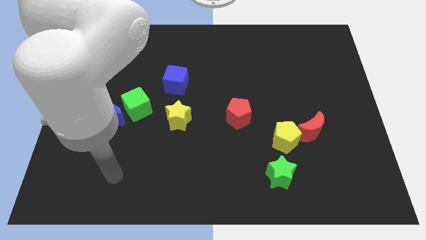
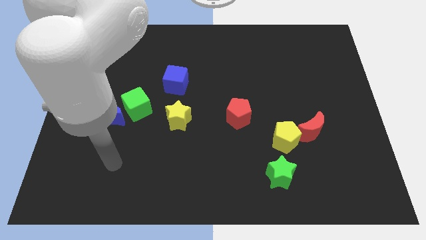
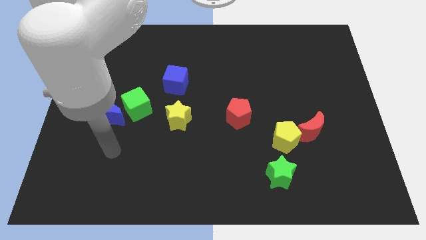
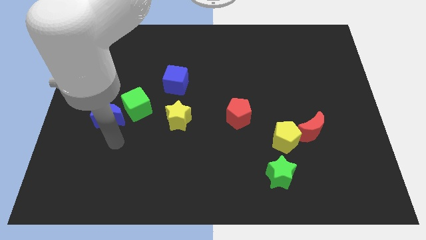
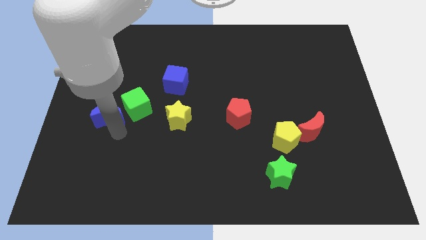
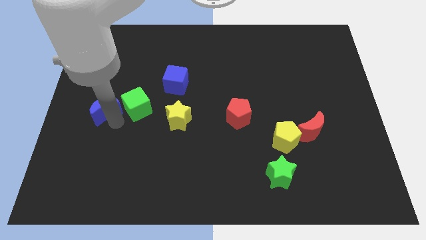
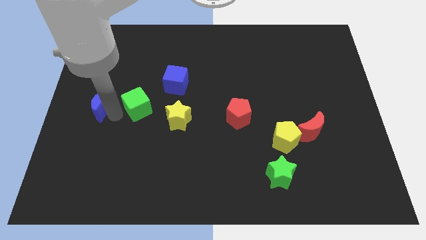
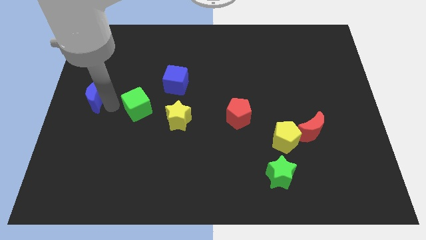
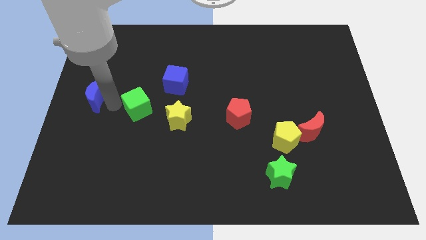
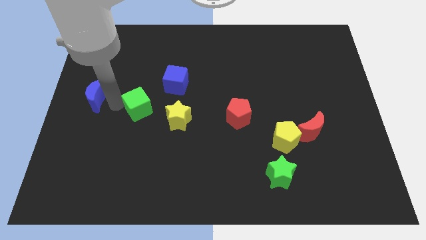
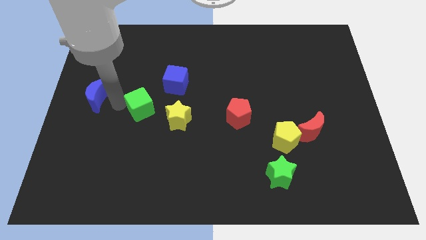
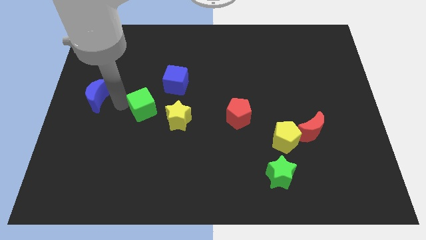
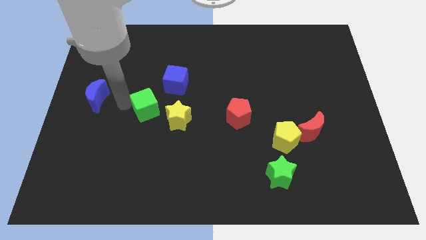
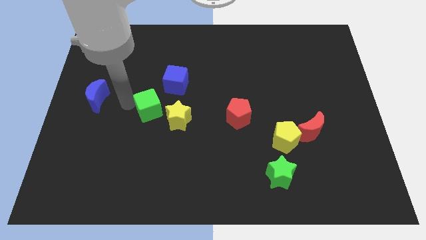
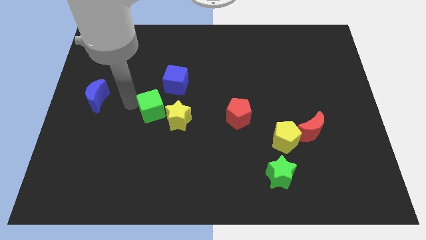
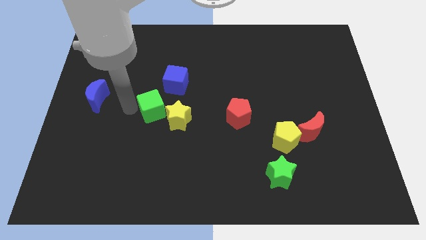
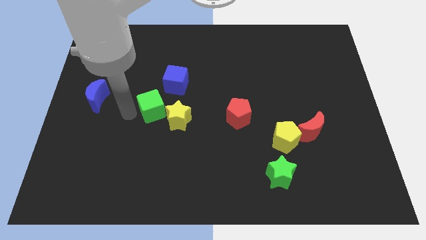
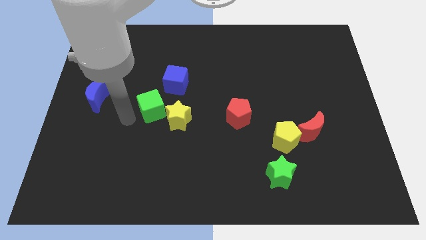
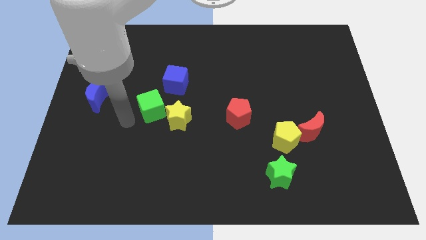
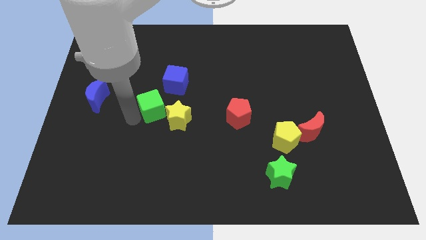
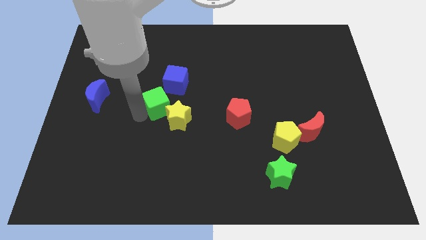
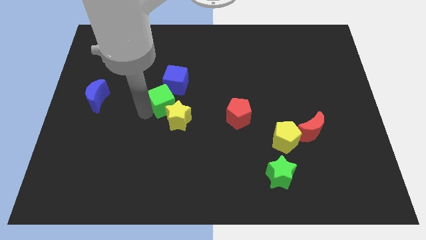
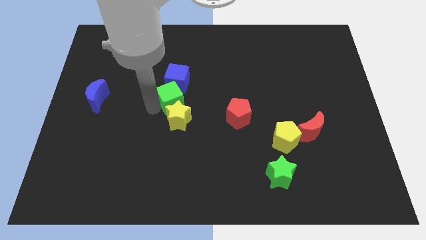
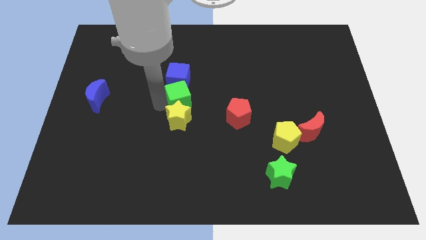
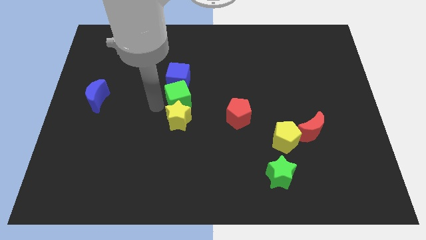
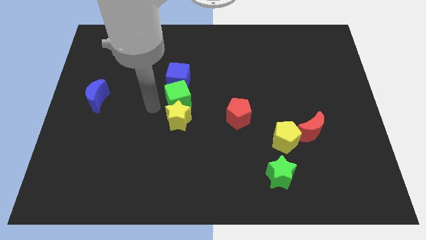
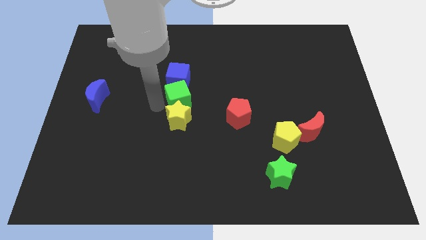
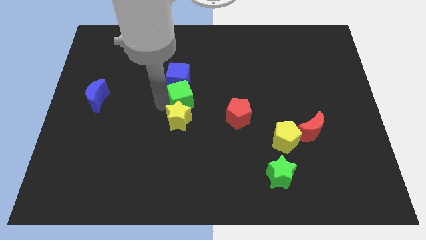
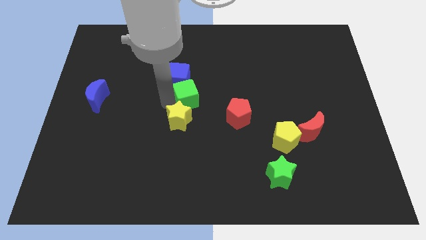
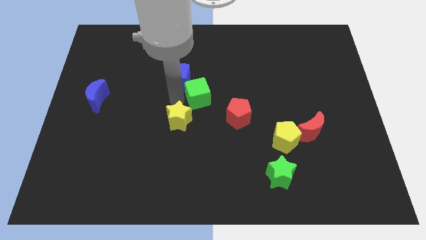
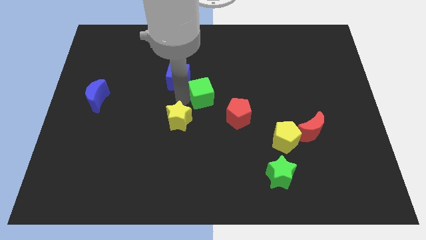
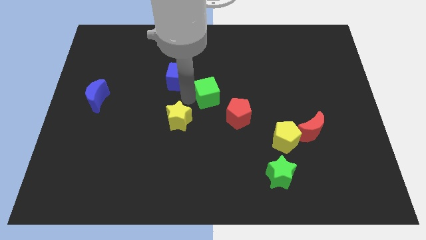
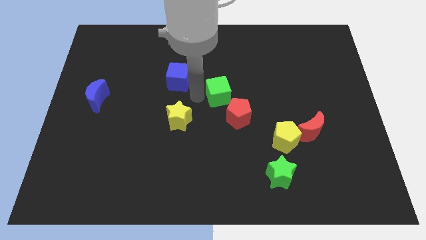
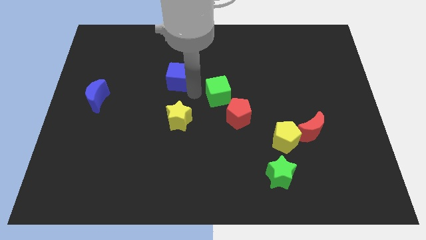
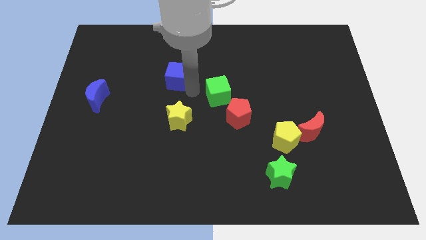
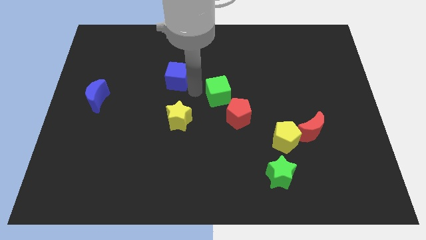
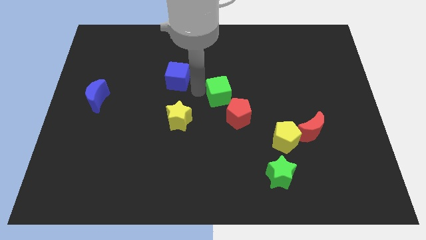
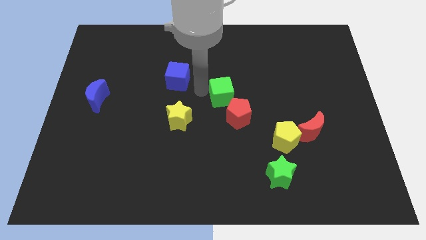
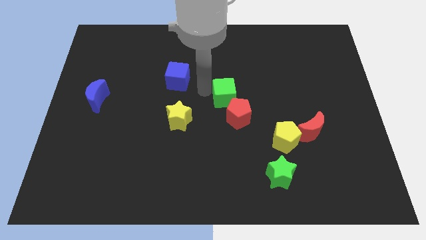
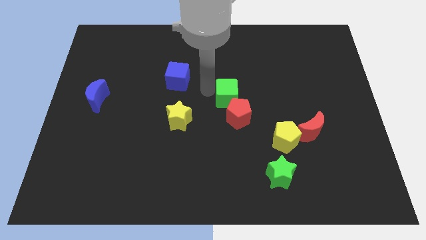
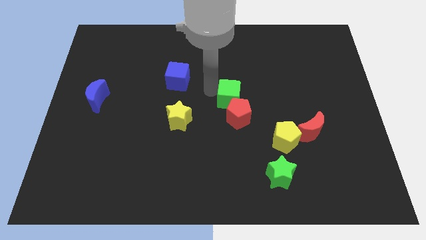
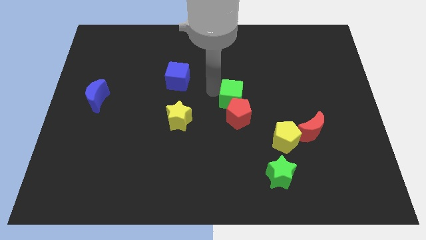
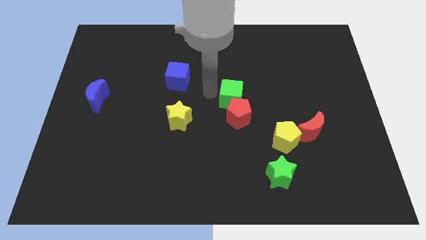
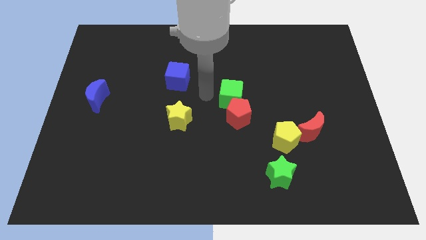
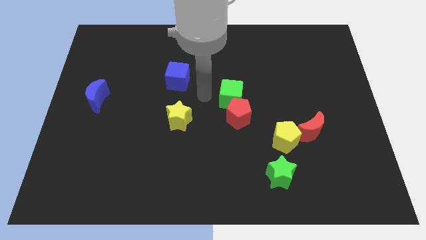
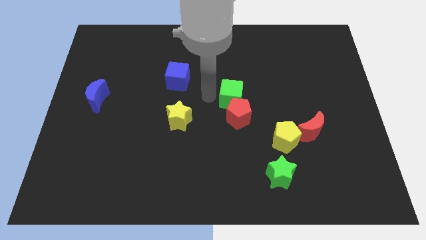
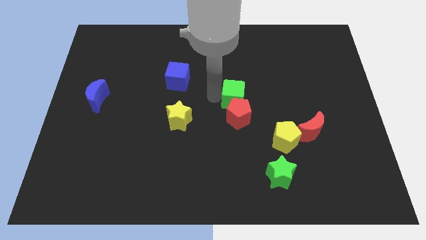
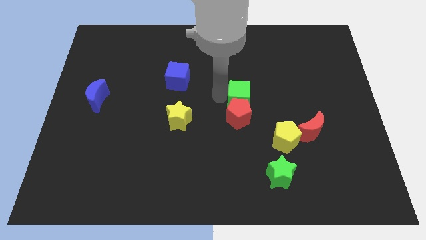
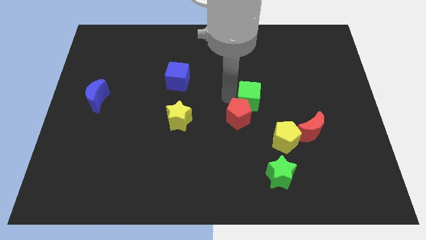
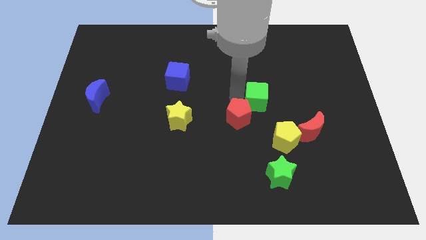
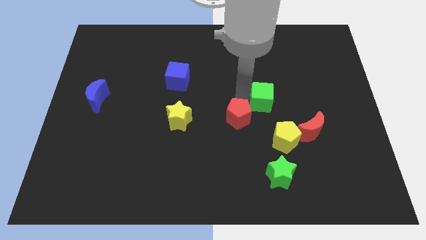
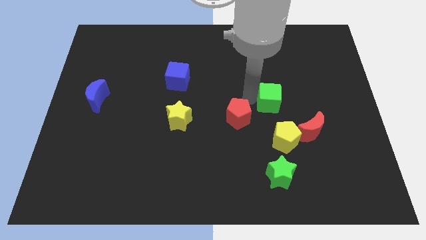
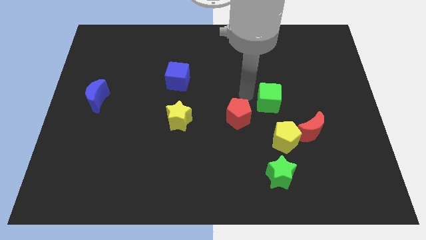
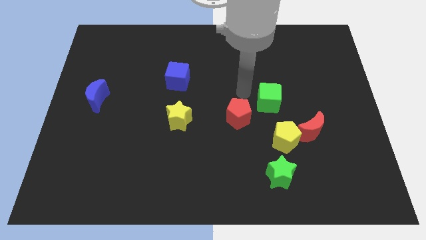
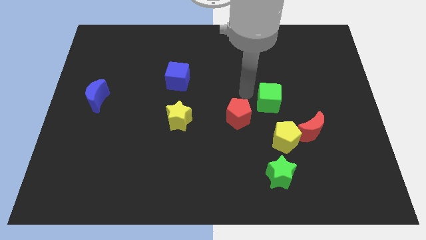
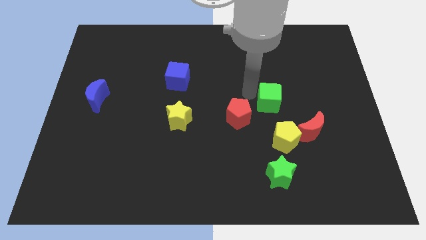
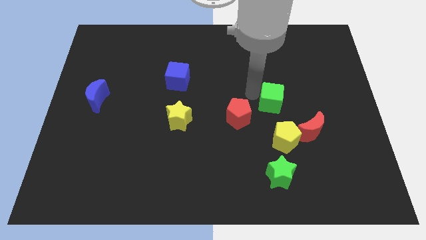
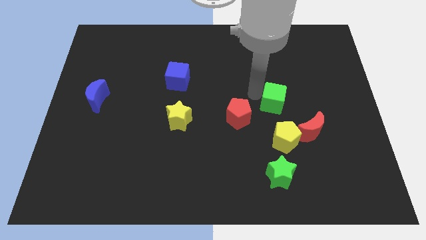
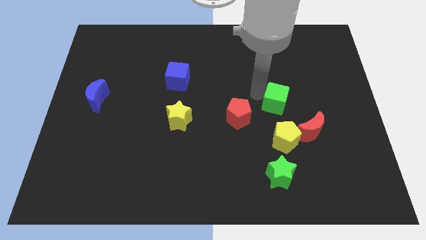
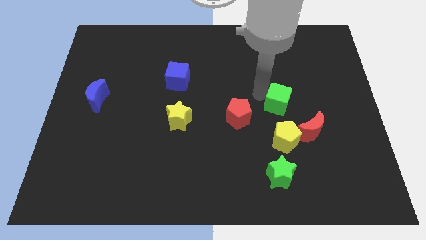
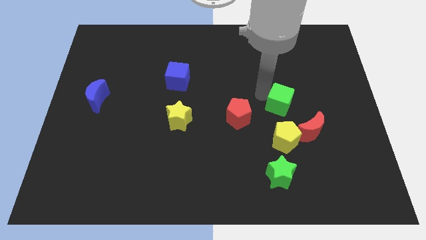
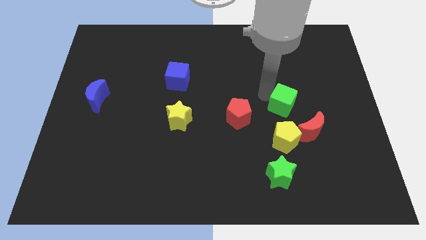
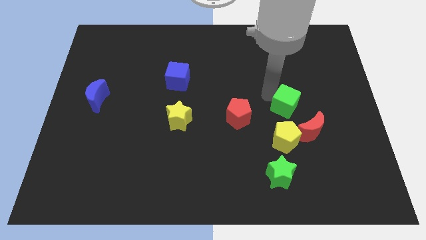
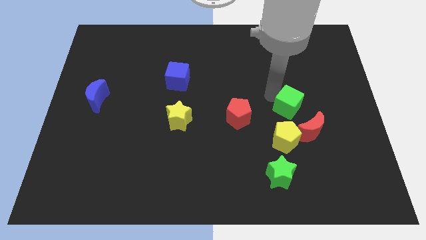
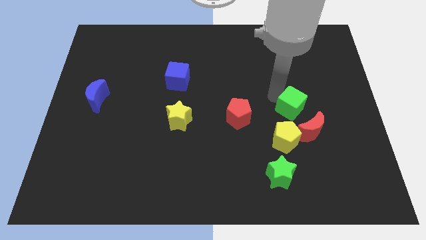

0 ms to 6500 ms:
slide the green cube to the top right side of the yellow pentagon

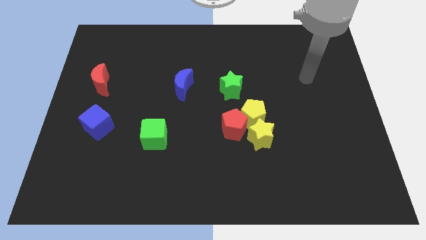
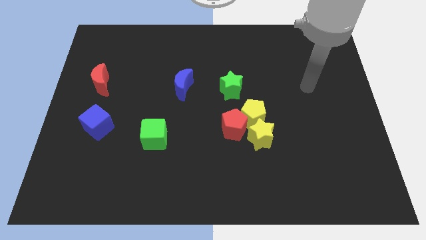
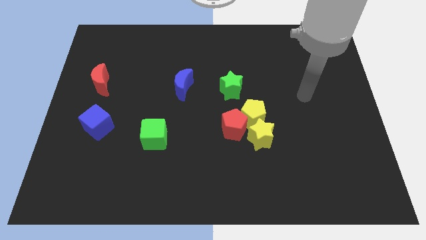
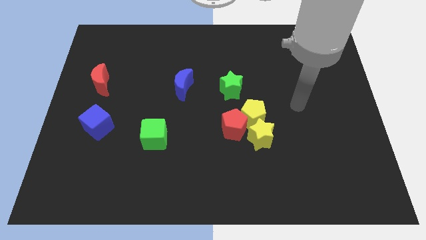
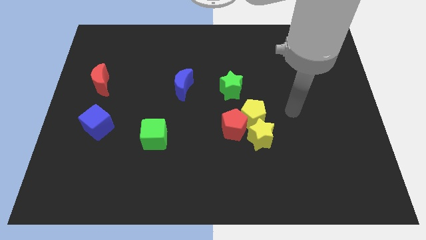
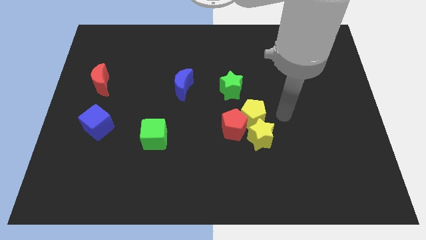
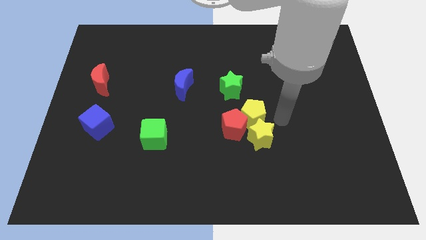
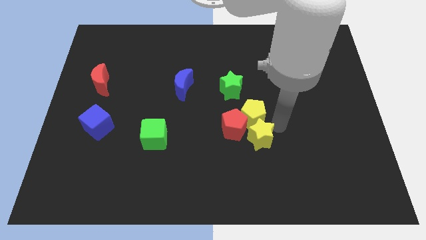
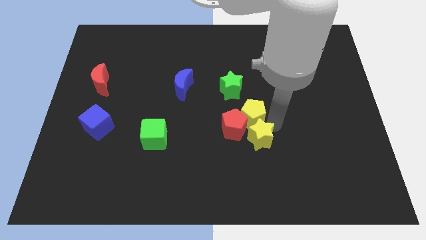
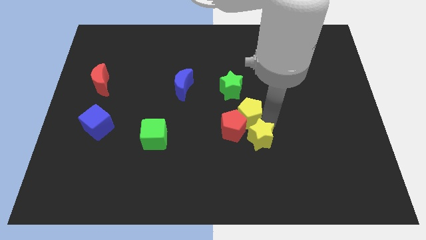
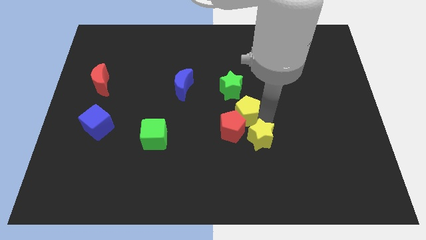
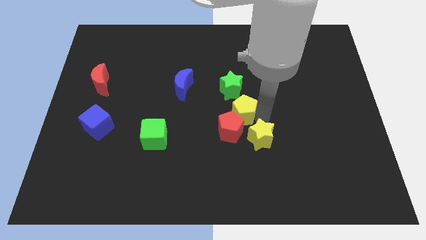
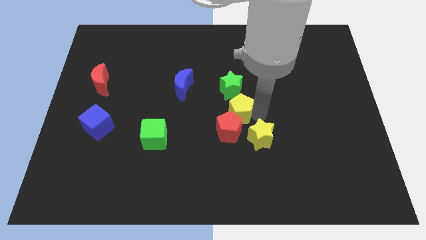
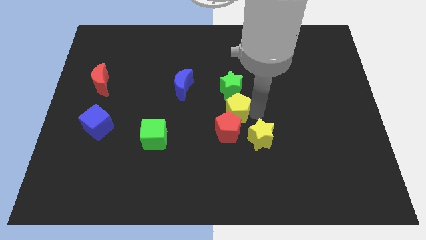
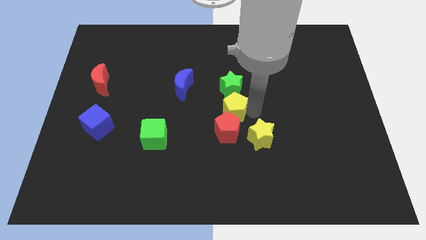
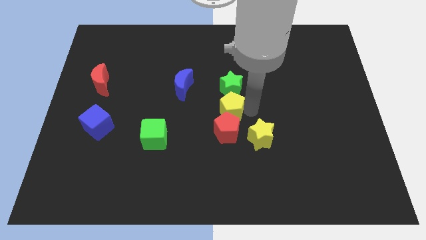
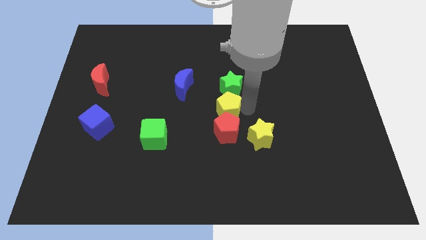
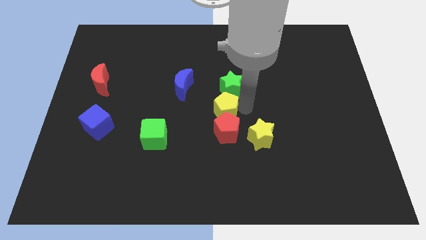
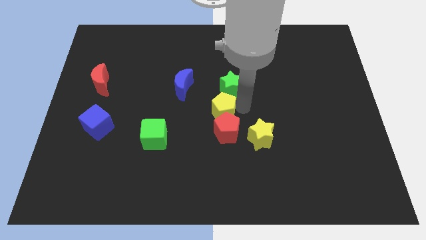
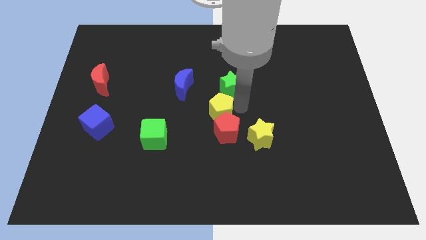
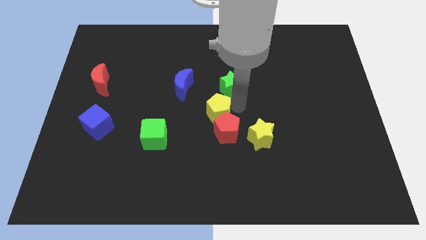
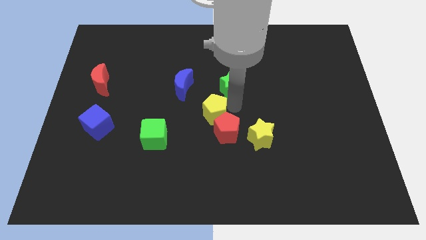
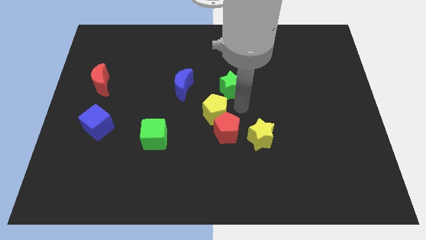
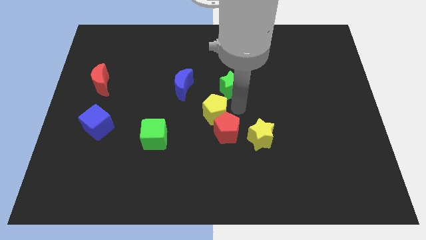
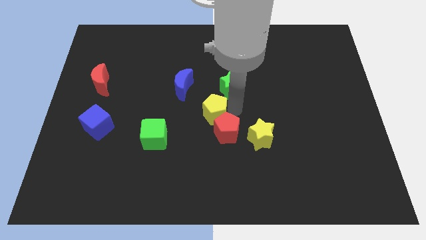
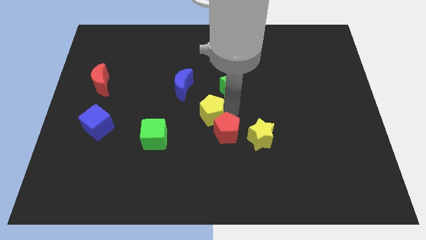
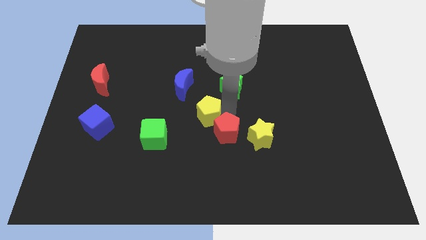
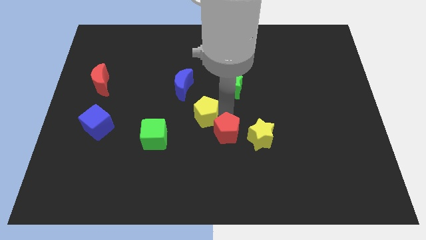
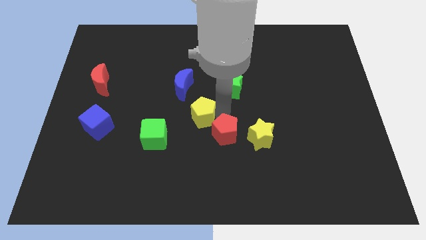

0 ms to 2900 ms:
slide the yellow pentagon diagonally up and to the right of the green cube
